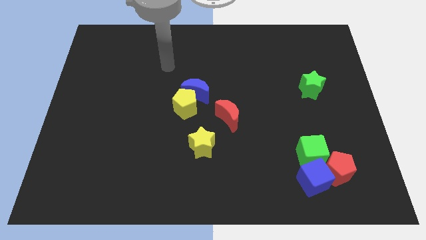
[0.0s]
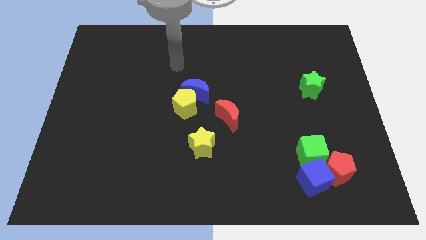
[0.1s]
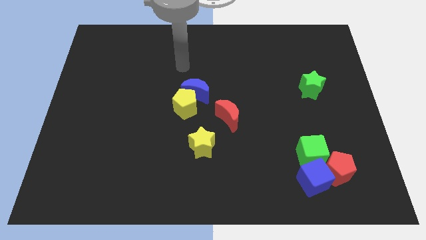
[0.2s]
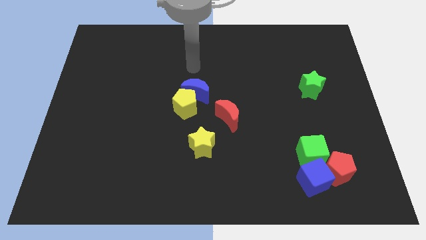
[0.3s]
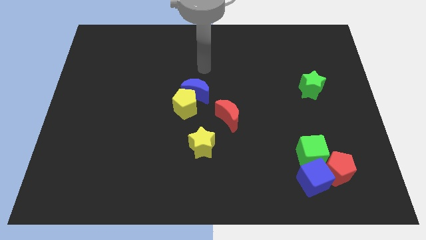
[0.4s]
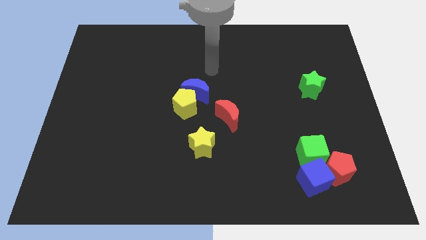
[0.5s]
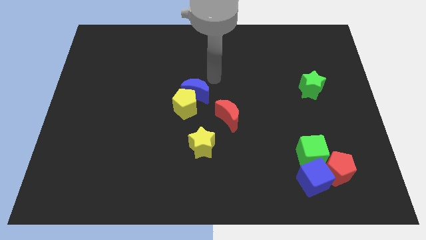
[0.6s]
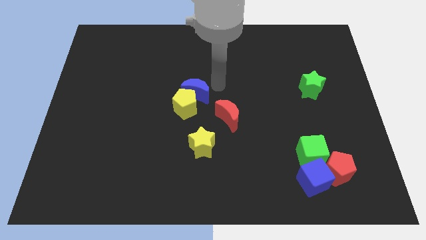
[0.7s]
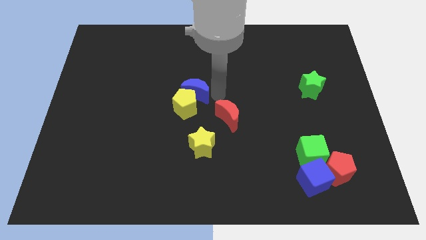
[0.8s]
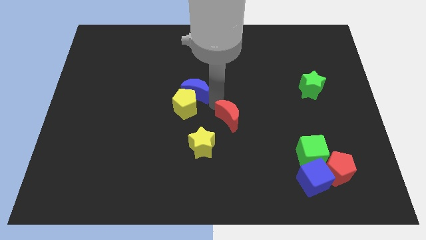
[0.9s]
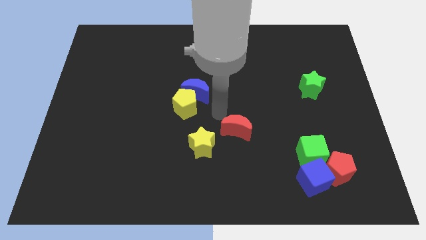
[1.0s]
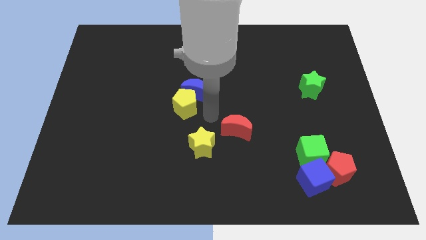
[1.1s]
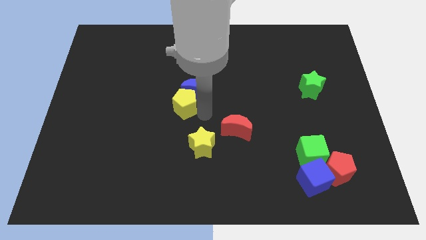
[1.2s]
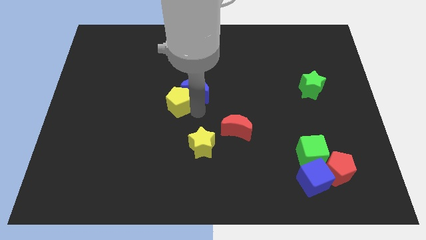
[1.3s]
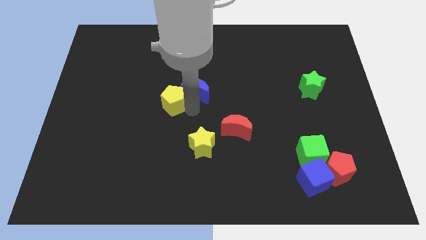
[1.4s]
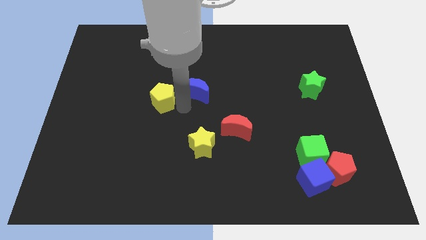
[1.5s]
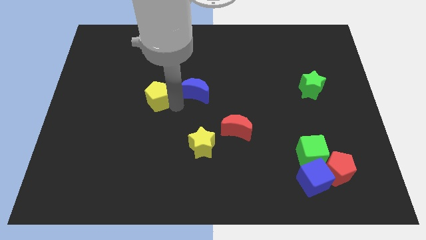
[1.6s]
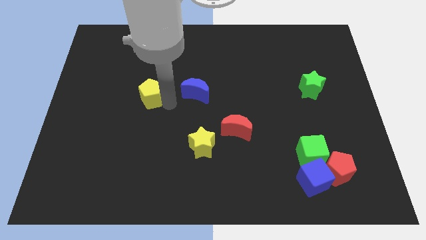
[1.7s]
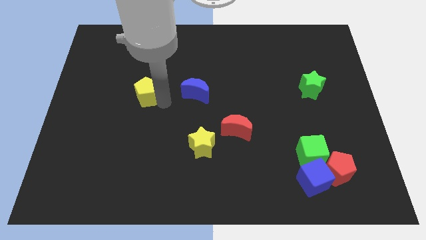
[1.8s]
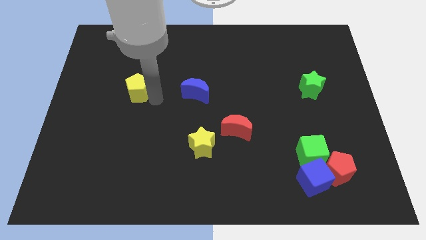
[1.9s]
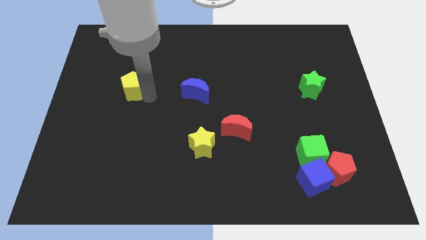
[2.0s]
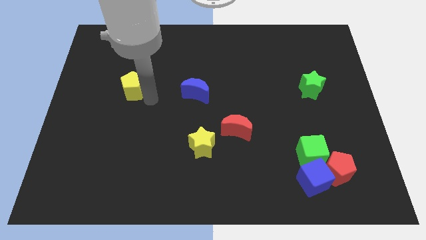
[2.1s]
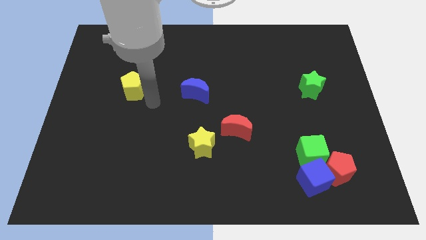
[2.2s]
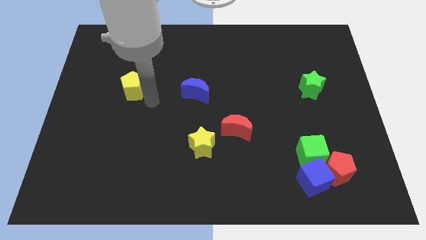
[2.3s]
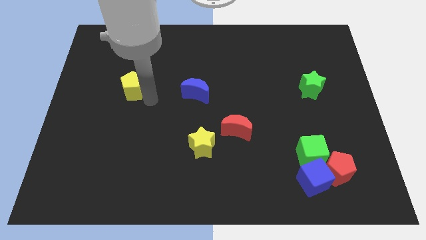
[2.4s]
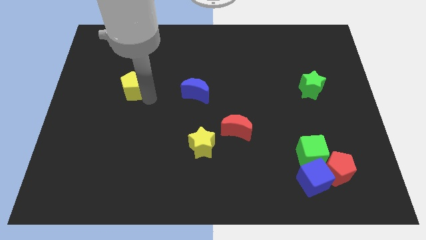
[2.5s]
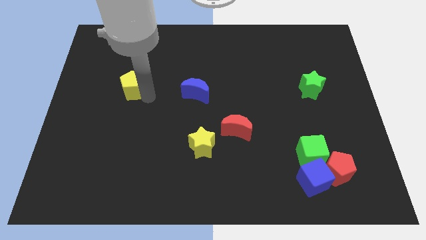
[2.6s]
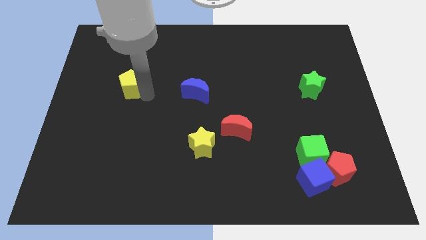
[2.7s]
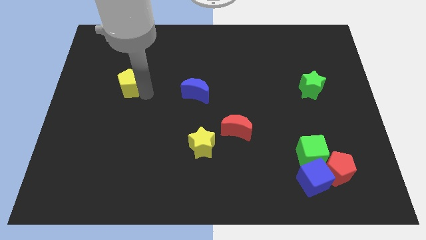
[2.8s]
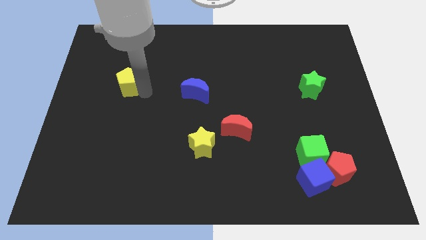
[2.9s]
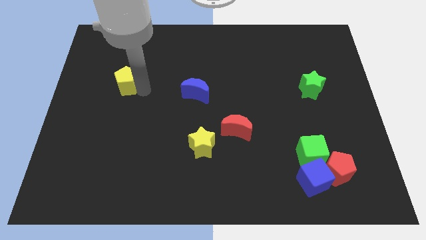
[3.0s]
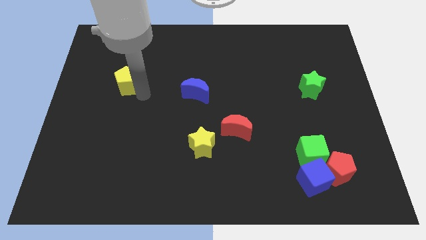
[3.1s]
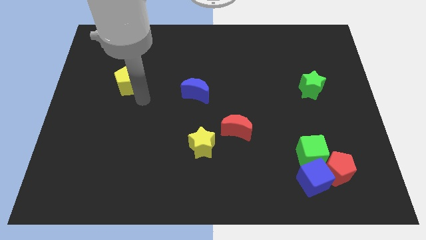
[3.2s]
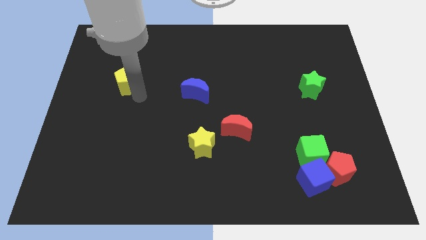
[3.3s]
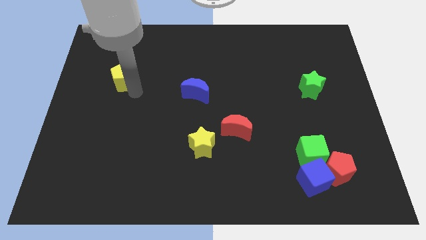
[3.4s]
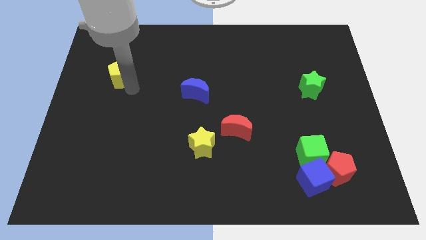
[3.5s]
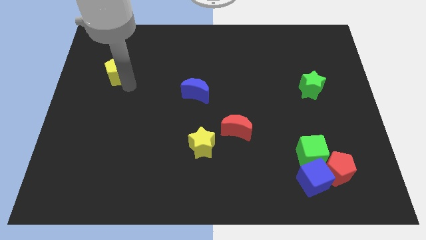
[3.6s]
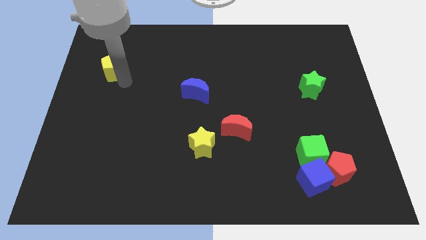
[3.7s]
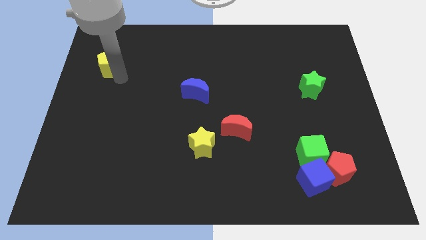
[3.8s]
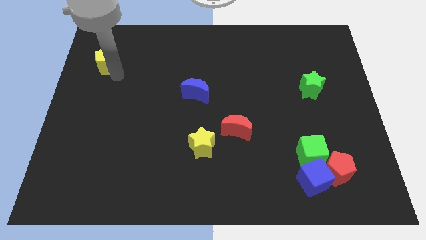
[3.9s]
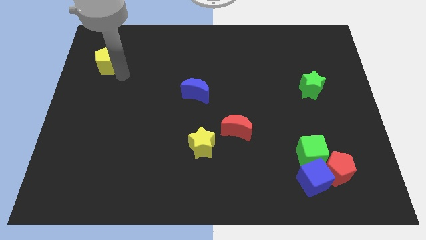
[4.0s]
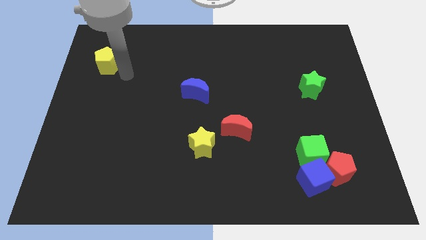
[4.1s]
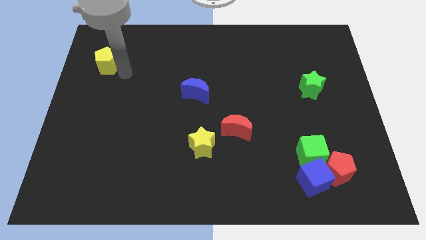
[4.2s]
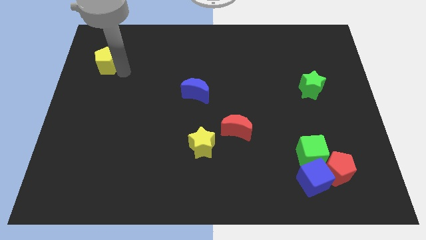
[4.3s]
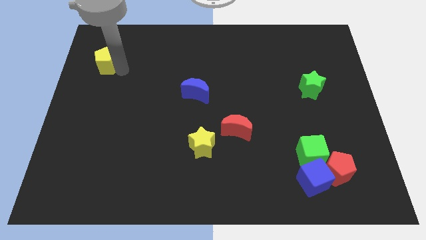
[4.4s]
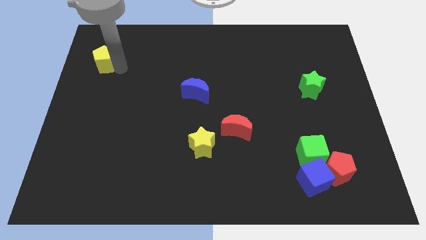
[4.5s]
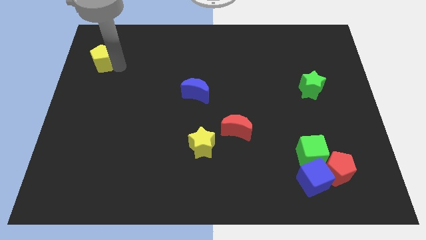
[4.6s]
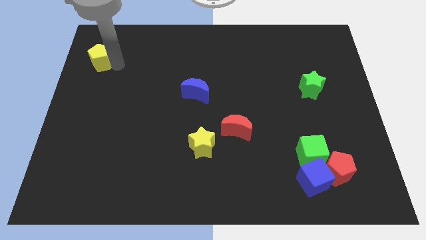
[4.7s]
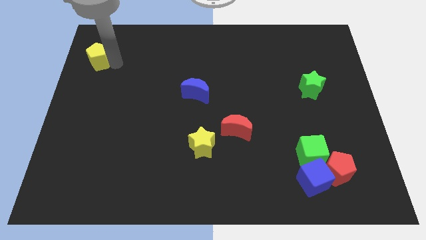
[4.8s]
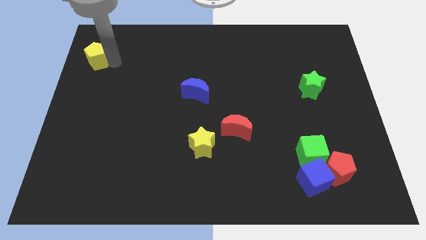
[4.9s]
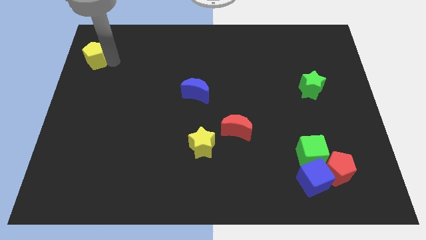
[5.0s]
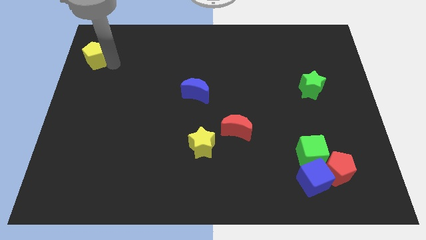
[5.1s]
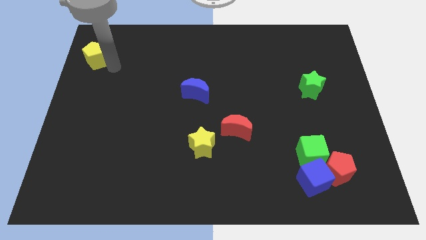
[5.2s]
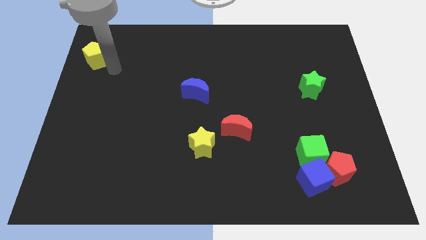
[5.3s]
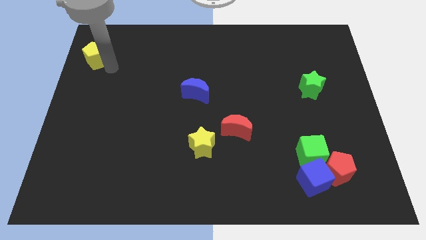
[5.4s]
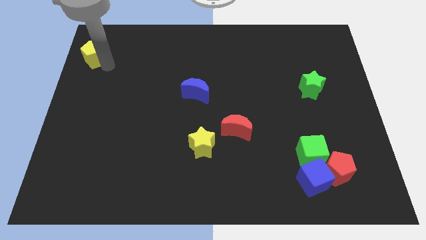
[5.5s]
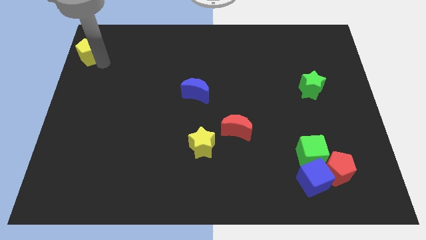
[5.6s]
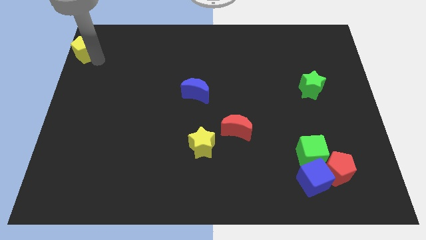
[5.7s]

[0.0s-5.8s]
put the yellow pentagon to the upper left corner

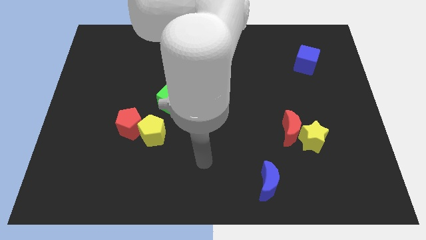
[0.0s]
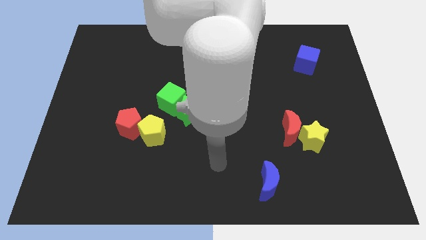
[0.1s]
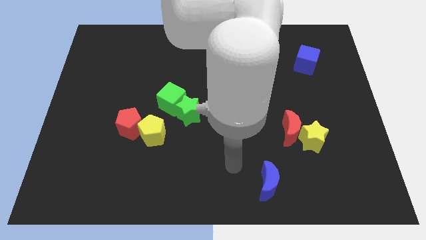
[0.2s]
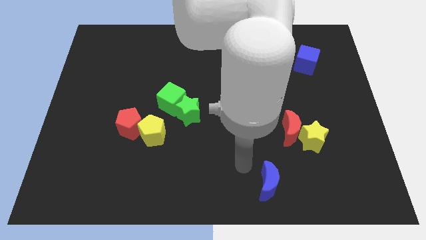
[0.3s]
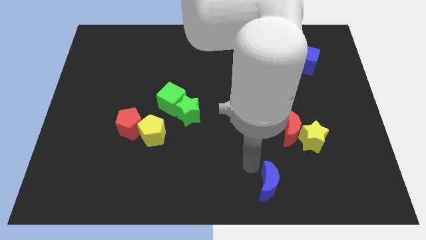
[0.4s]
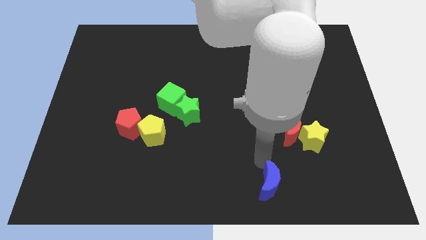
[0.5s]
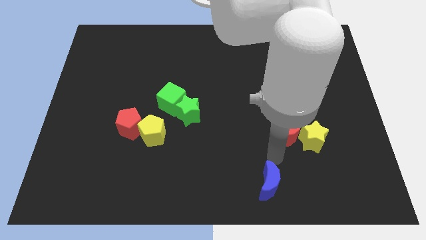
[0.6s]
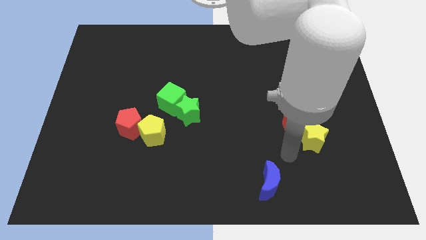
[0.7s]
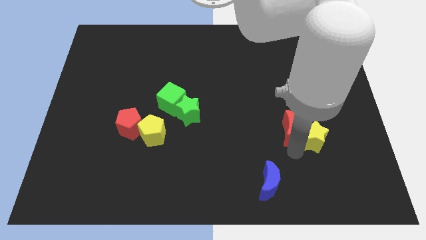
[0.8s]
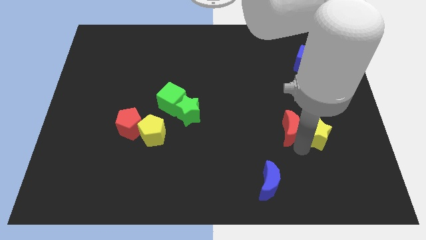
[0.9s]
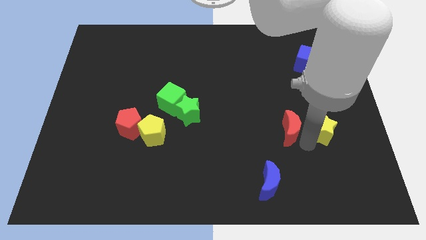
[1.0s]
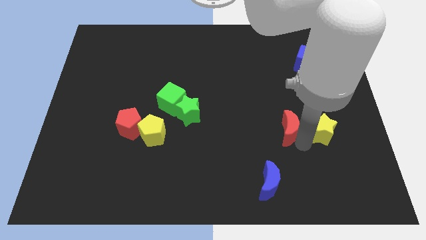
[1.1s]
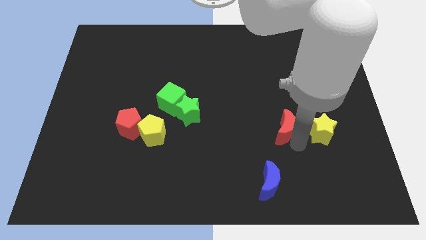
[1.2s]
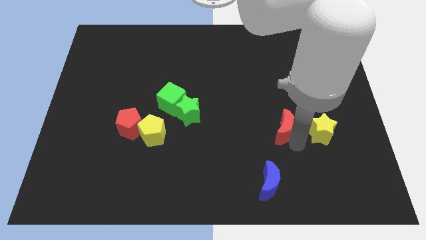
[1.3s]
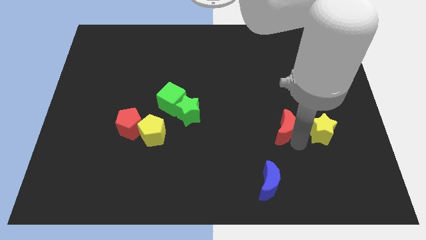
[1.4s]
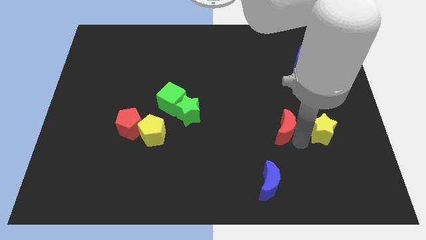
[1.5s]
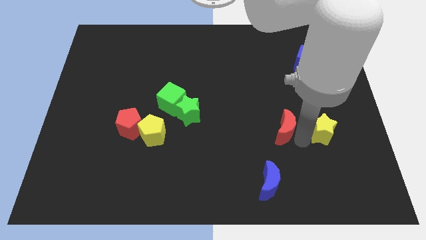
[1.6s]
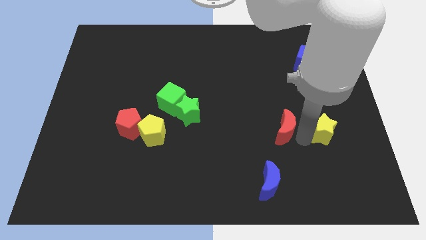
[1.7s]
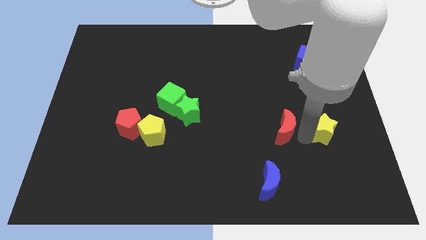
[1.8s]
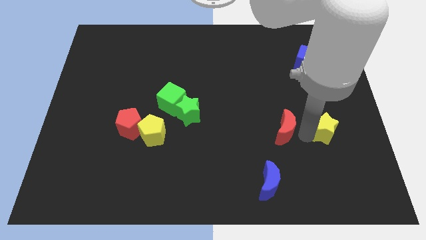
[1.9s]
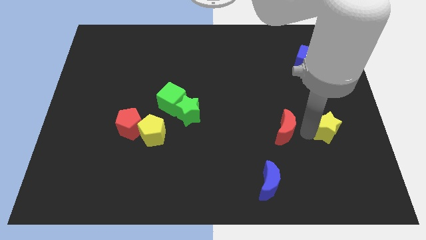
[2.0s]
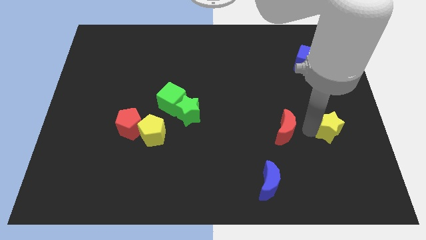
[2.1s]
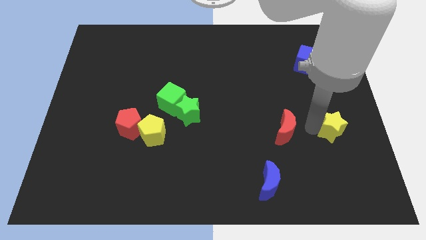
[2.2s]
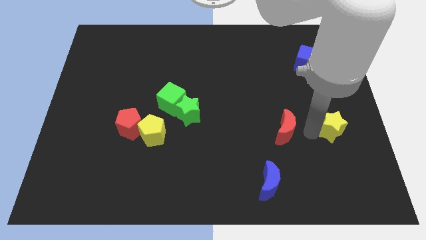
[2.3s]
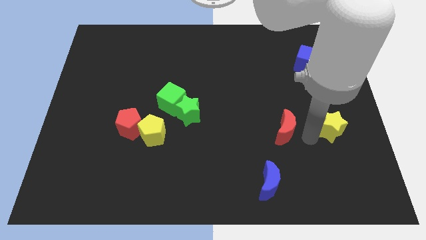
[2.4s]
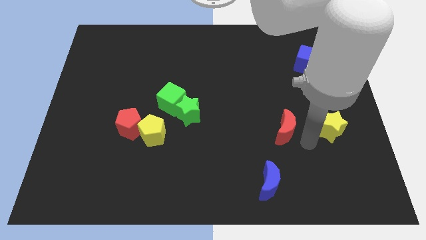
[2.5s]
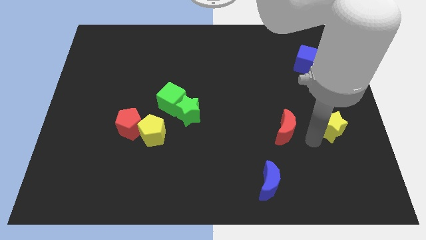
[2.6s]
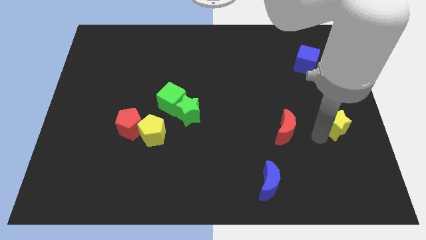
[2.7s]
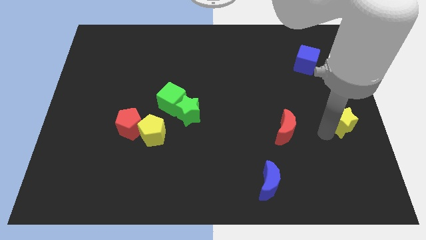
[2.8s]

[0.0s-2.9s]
put the yellow star to the center right
